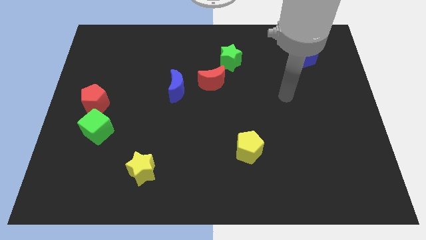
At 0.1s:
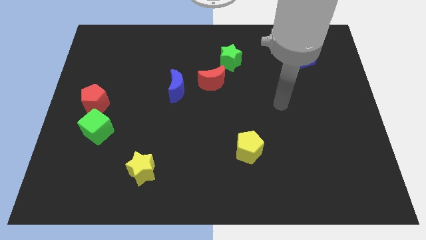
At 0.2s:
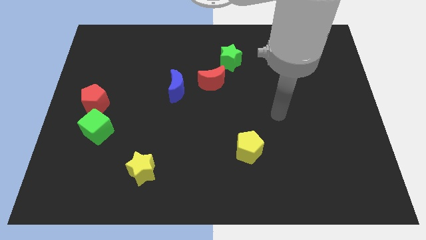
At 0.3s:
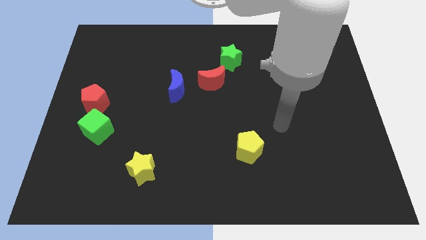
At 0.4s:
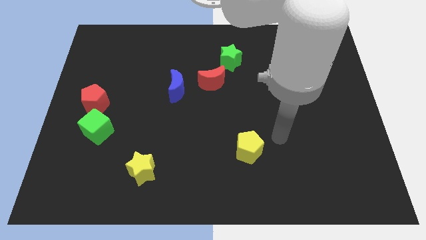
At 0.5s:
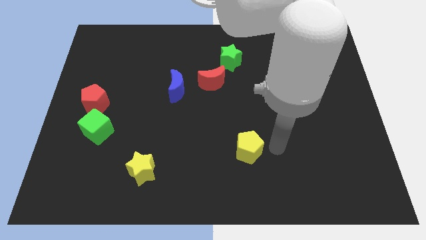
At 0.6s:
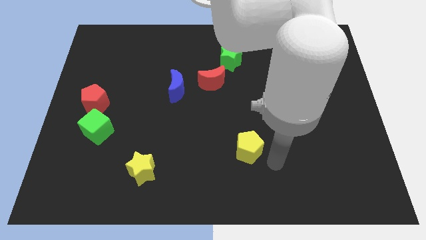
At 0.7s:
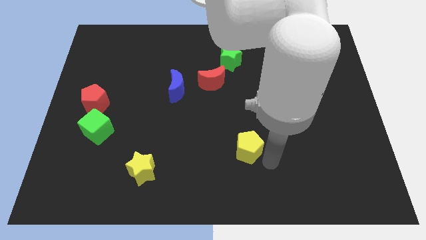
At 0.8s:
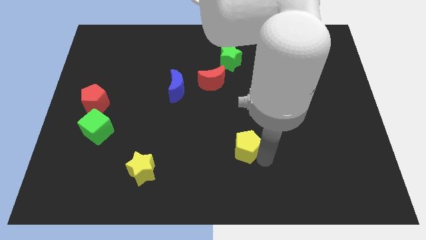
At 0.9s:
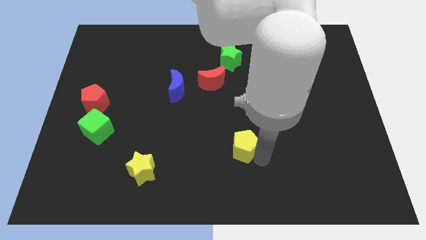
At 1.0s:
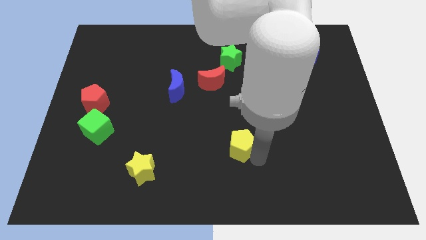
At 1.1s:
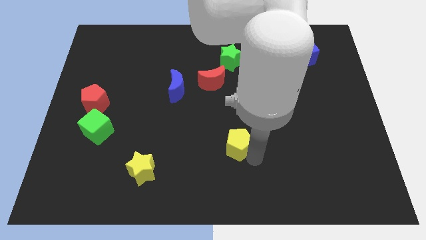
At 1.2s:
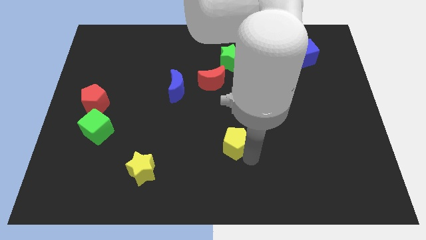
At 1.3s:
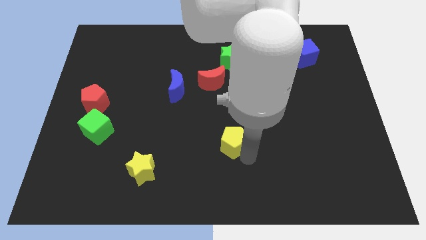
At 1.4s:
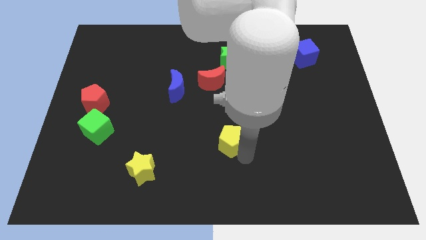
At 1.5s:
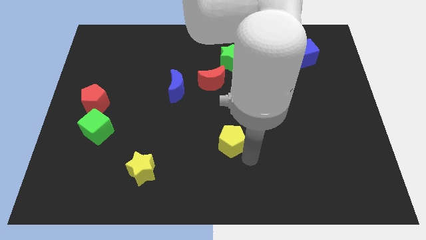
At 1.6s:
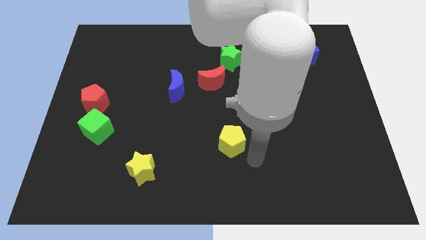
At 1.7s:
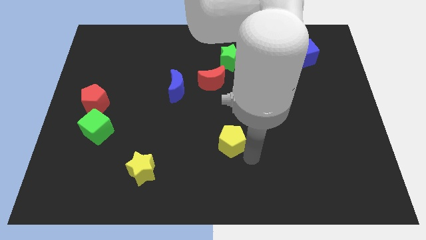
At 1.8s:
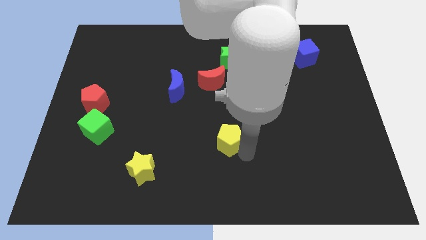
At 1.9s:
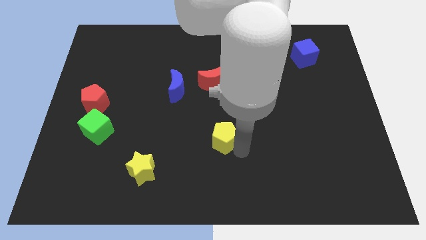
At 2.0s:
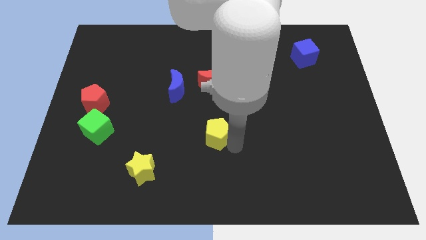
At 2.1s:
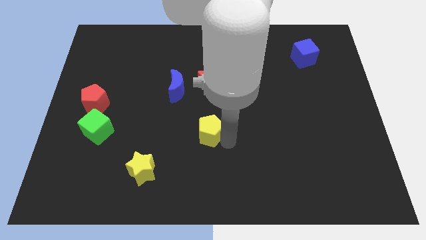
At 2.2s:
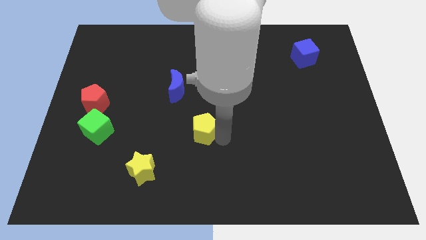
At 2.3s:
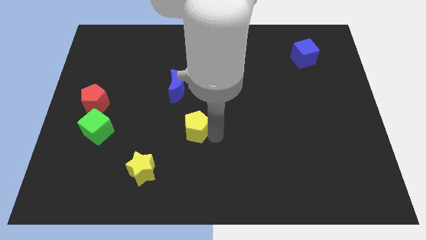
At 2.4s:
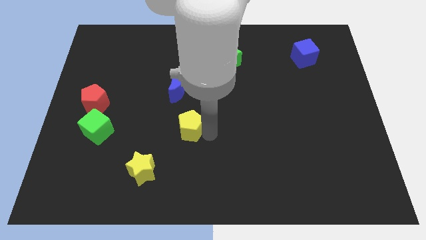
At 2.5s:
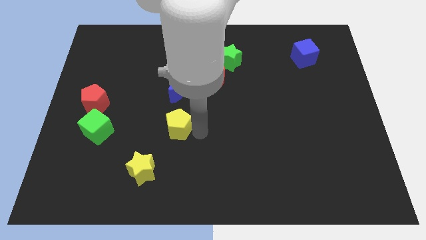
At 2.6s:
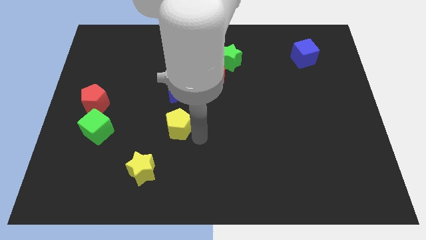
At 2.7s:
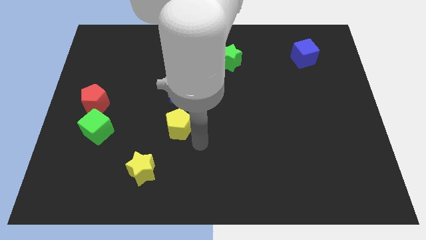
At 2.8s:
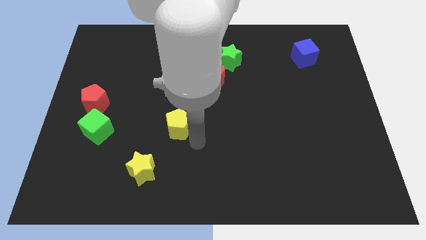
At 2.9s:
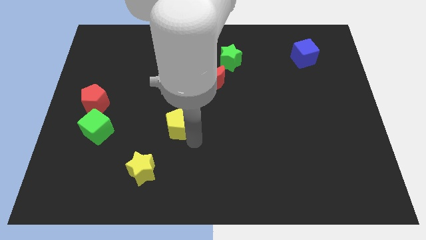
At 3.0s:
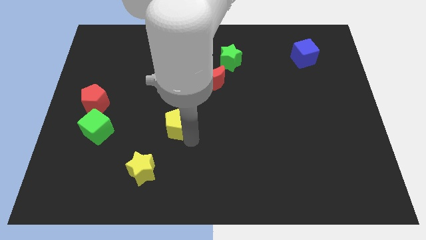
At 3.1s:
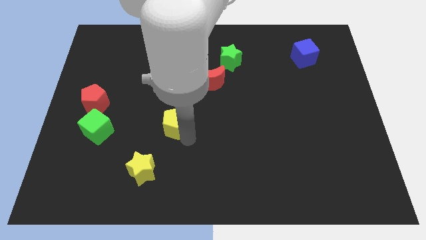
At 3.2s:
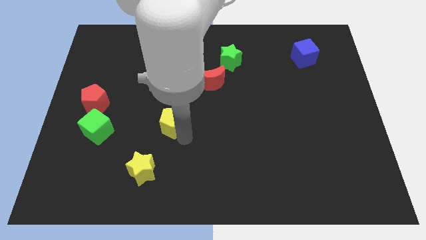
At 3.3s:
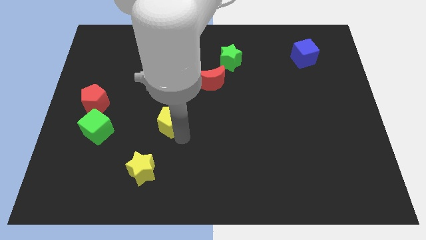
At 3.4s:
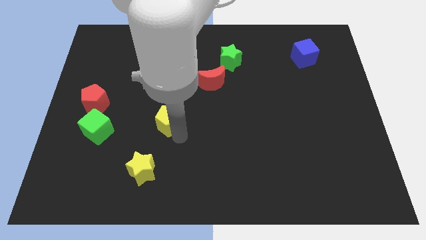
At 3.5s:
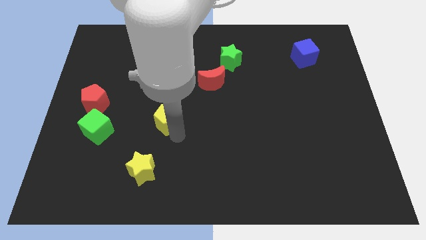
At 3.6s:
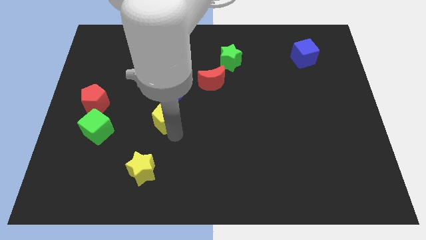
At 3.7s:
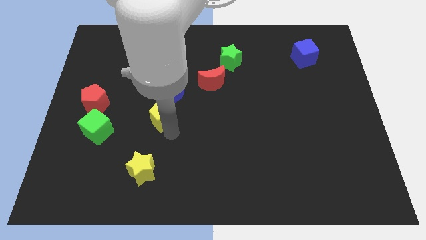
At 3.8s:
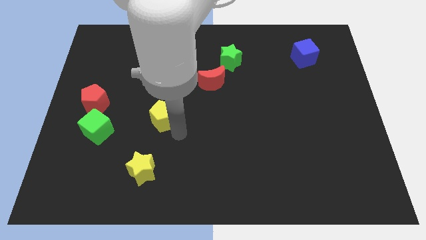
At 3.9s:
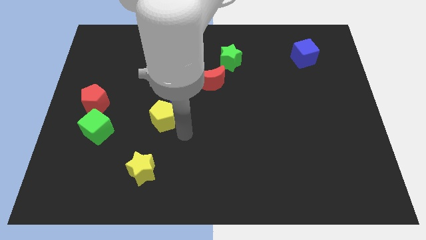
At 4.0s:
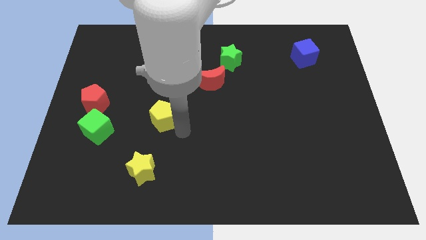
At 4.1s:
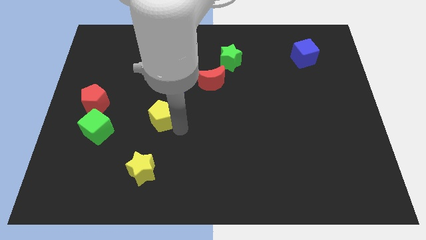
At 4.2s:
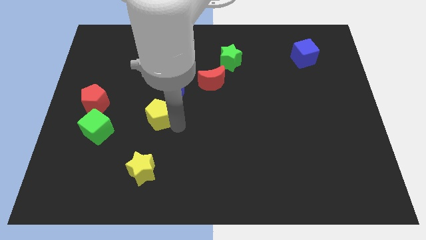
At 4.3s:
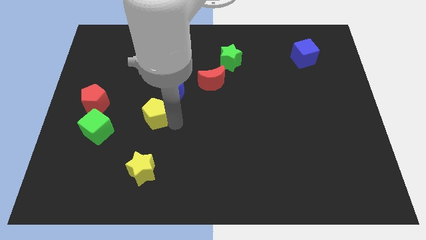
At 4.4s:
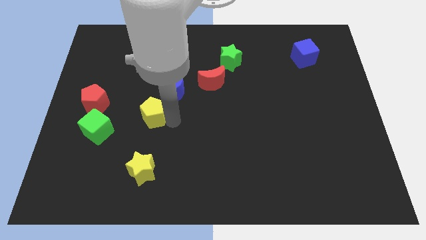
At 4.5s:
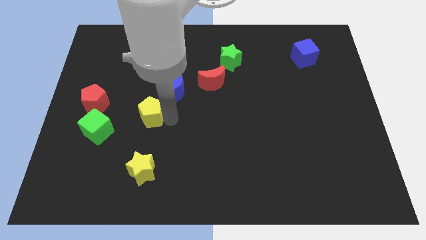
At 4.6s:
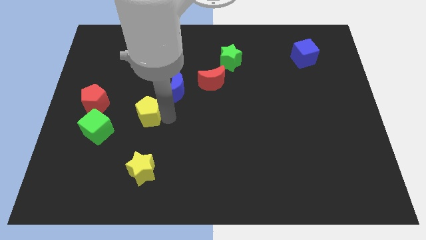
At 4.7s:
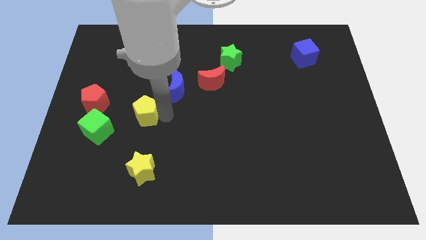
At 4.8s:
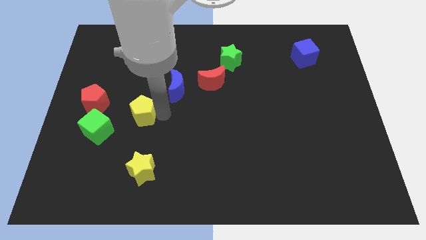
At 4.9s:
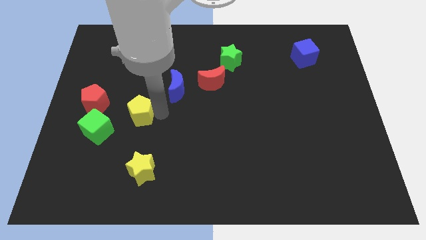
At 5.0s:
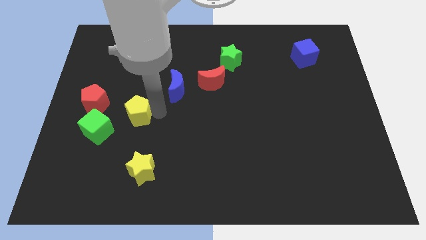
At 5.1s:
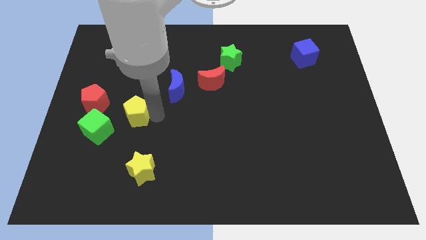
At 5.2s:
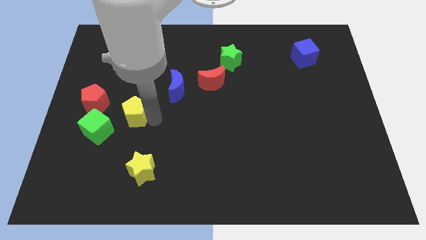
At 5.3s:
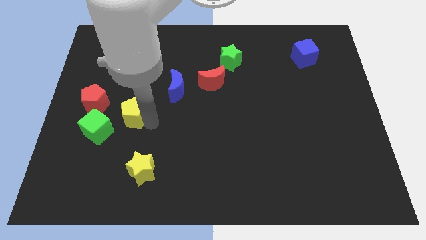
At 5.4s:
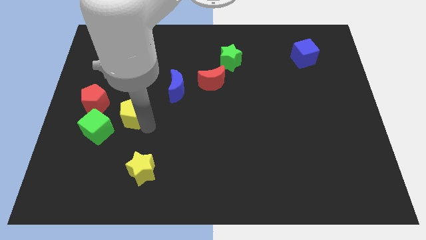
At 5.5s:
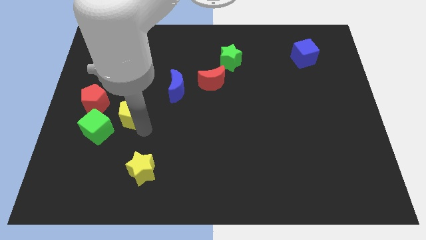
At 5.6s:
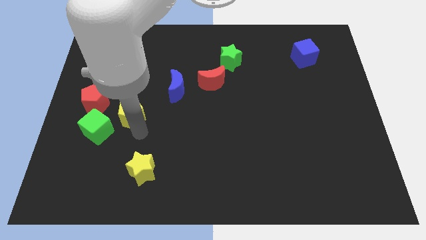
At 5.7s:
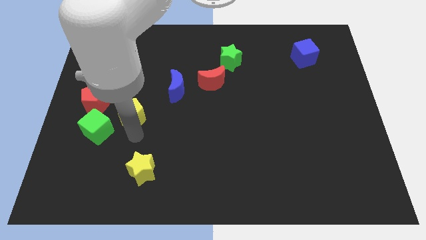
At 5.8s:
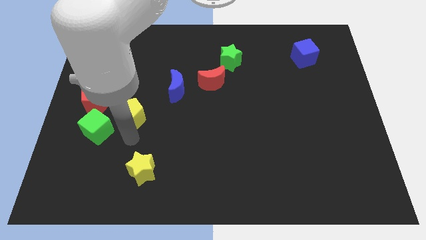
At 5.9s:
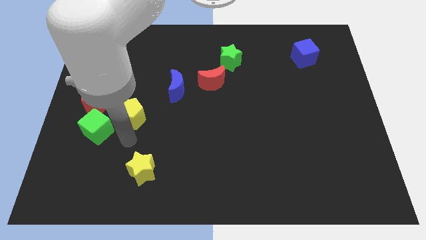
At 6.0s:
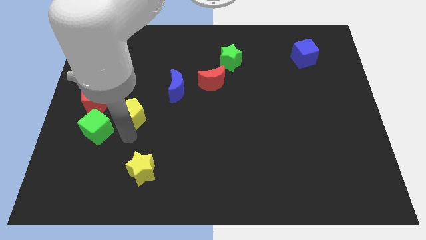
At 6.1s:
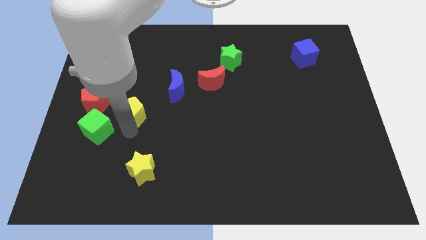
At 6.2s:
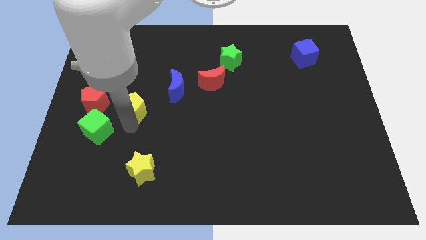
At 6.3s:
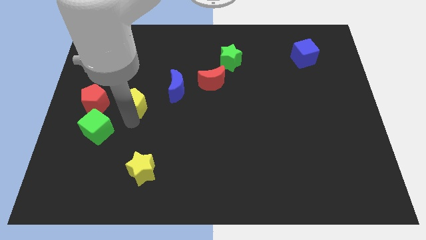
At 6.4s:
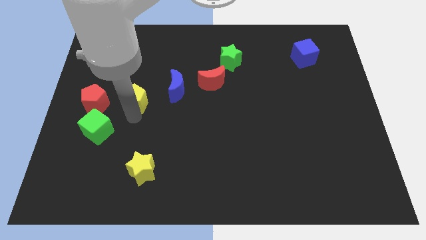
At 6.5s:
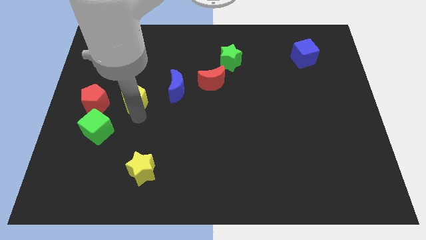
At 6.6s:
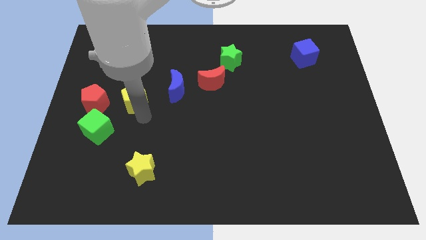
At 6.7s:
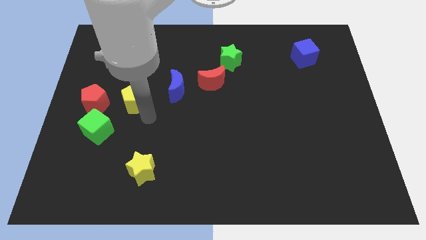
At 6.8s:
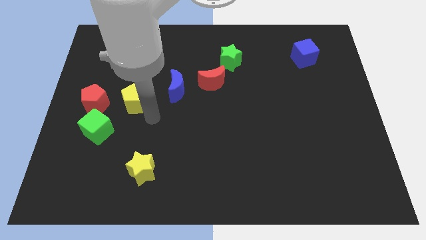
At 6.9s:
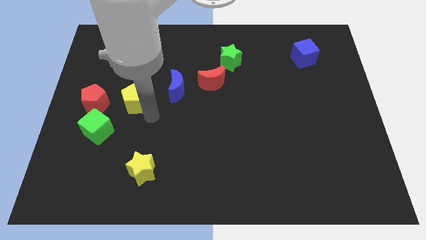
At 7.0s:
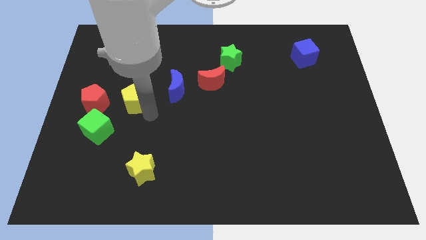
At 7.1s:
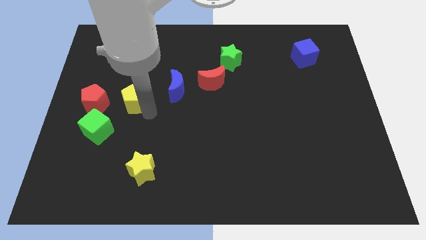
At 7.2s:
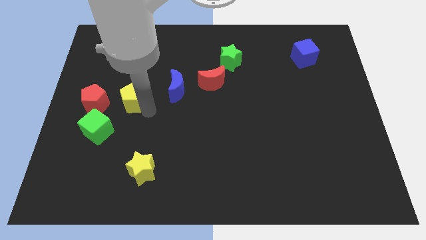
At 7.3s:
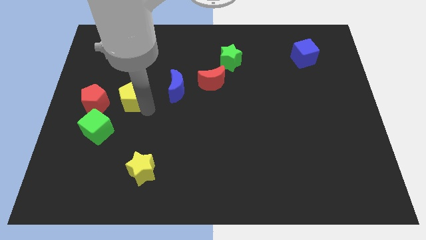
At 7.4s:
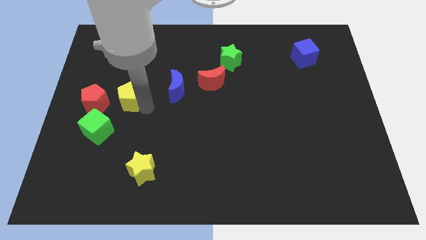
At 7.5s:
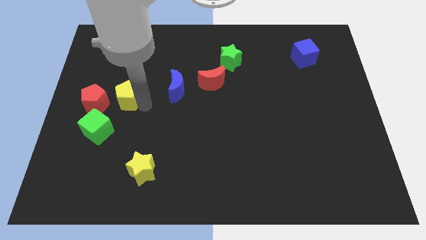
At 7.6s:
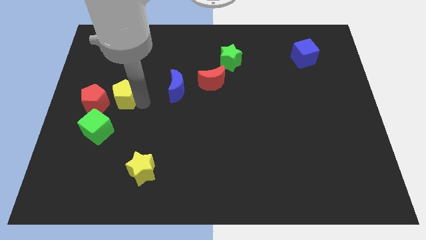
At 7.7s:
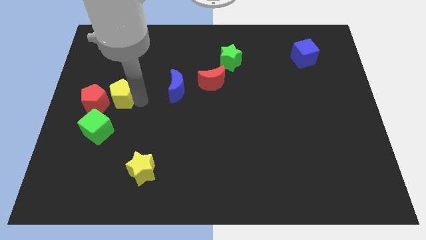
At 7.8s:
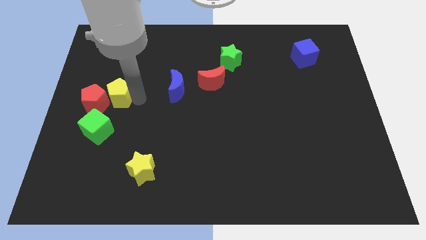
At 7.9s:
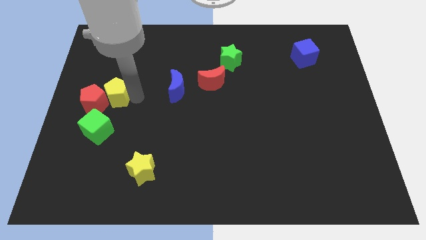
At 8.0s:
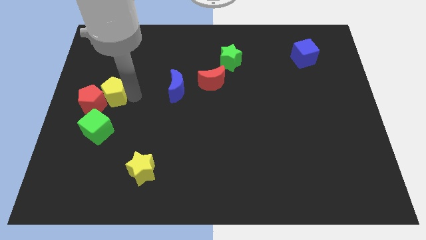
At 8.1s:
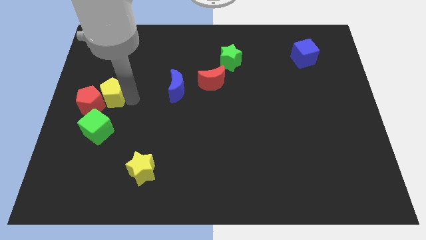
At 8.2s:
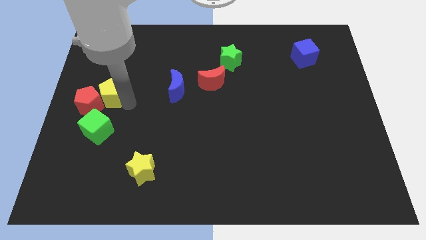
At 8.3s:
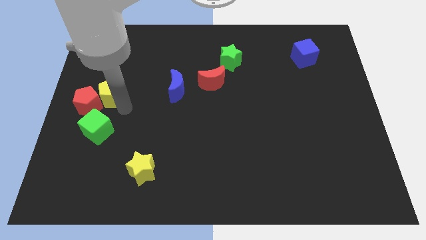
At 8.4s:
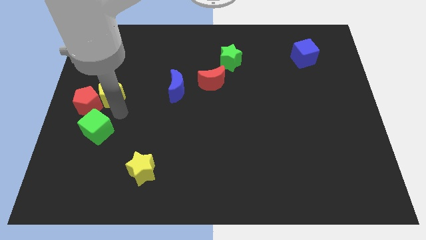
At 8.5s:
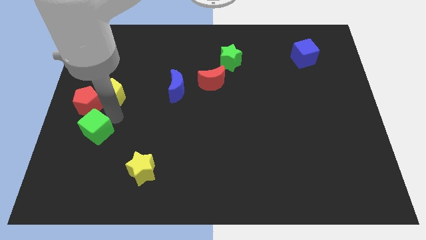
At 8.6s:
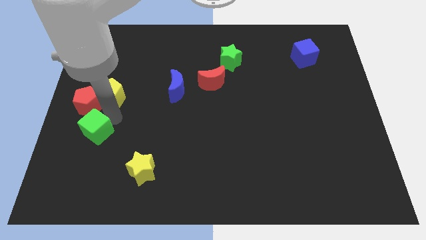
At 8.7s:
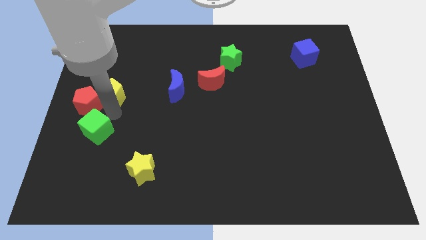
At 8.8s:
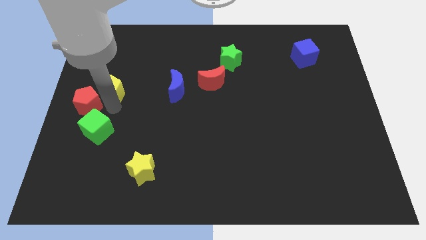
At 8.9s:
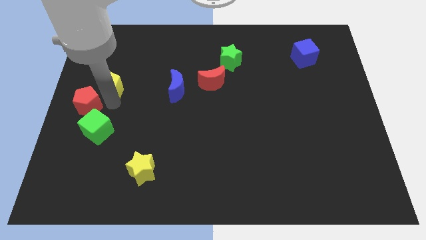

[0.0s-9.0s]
put the yellow pentagon to the center left
